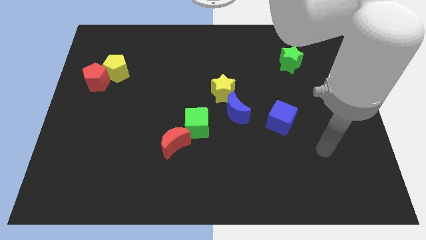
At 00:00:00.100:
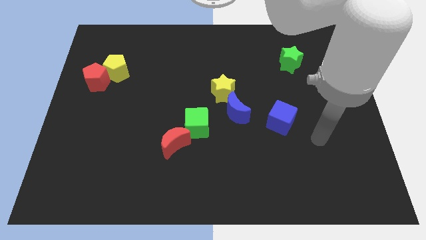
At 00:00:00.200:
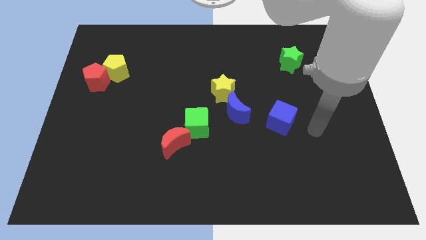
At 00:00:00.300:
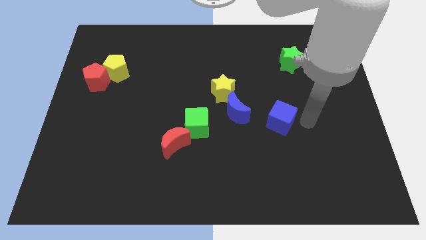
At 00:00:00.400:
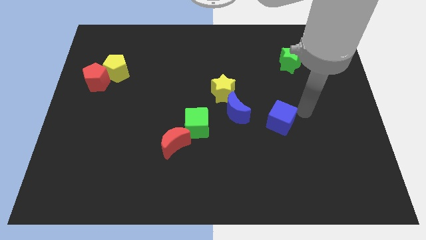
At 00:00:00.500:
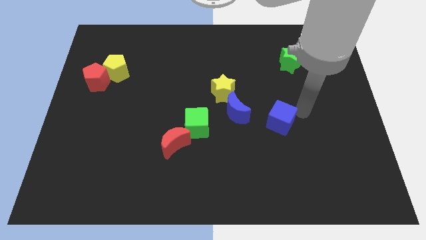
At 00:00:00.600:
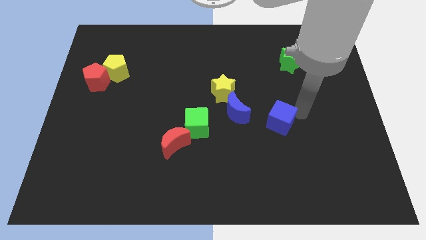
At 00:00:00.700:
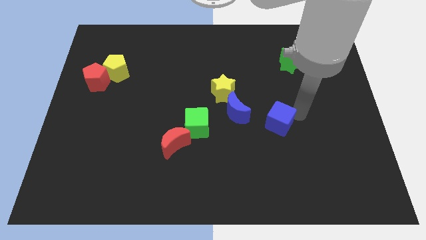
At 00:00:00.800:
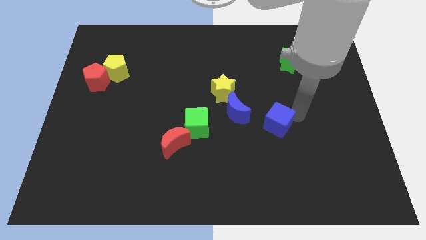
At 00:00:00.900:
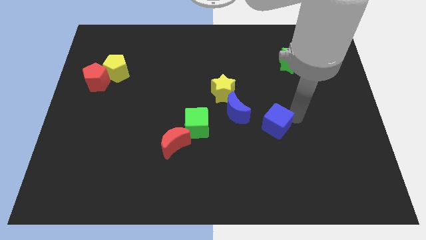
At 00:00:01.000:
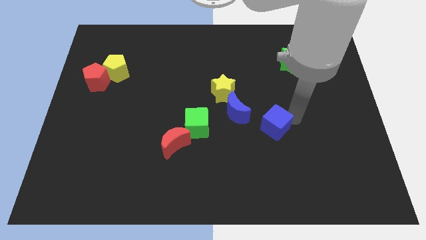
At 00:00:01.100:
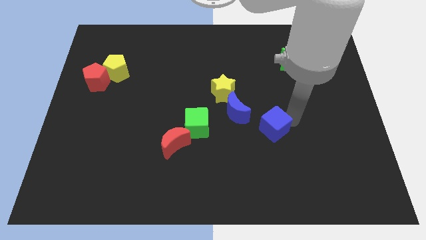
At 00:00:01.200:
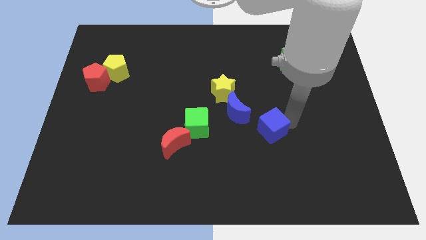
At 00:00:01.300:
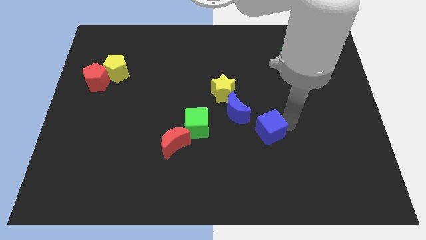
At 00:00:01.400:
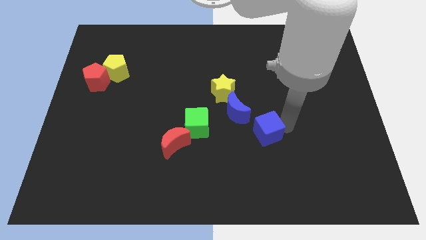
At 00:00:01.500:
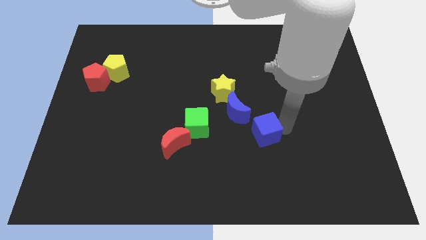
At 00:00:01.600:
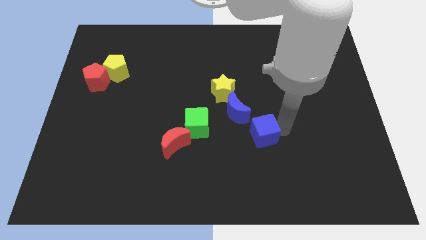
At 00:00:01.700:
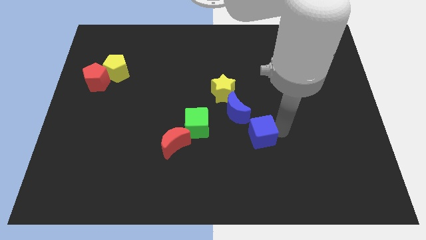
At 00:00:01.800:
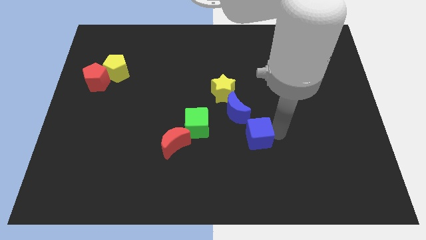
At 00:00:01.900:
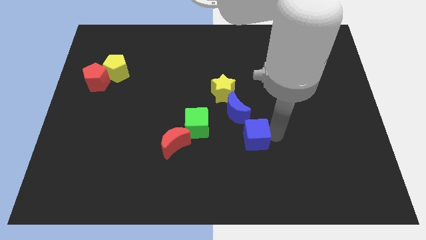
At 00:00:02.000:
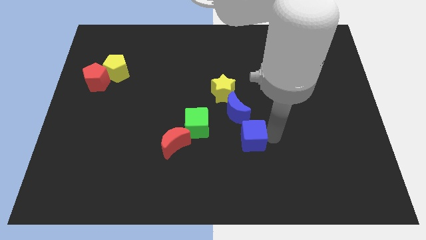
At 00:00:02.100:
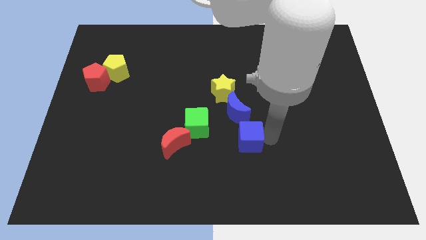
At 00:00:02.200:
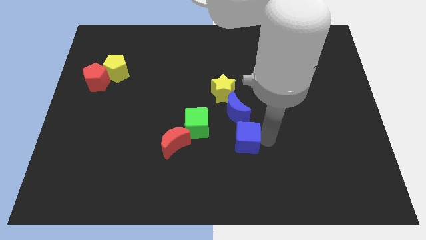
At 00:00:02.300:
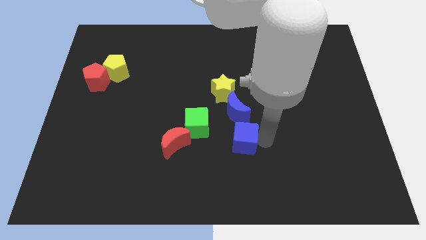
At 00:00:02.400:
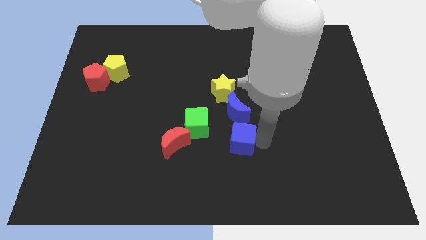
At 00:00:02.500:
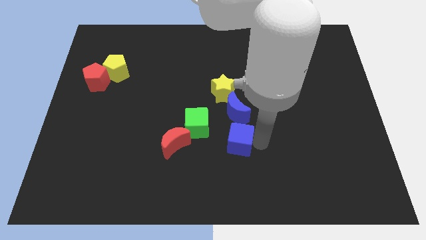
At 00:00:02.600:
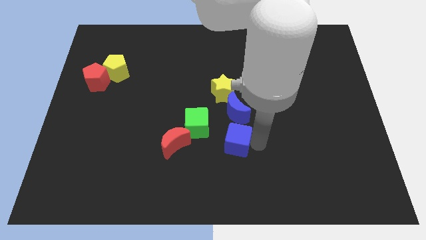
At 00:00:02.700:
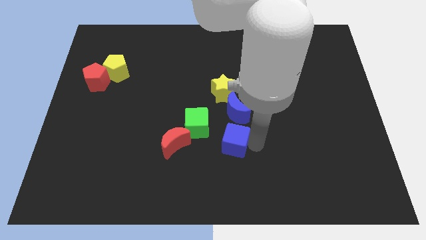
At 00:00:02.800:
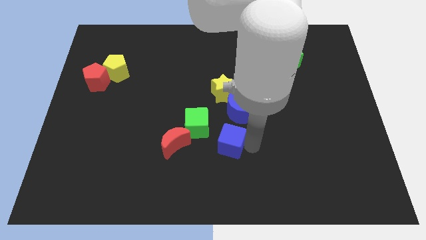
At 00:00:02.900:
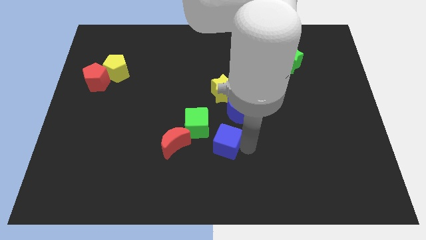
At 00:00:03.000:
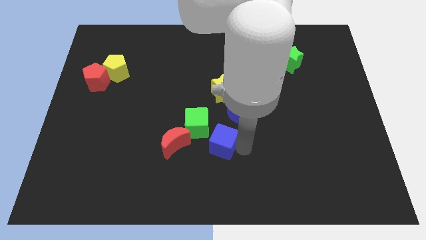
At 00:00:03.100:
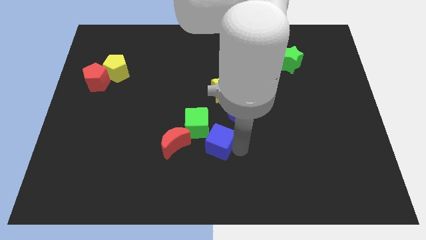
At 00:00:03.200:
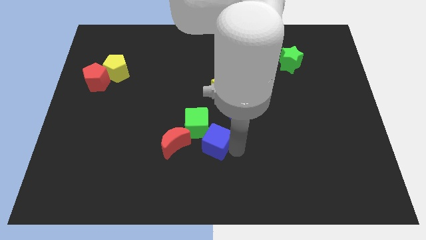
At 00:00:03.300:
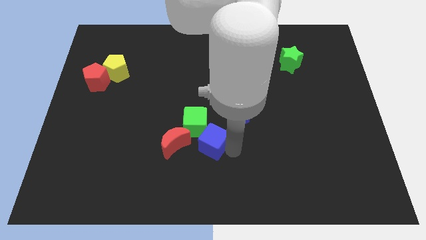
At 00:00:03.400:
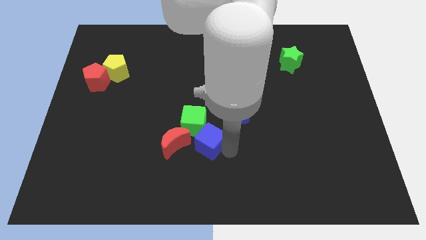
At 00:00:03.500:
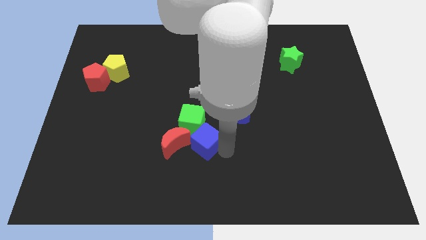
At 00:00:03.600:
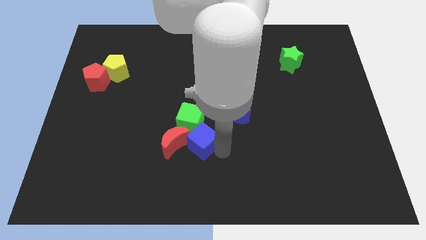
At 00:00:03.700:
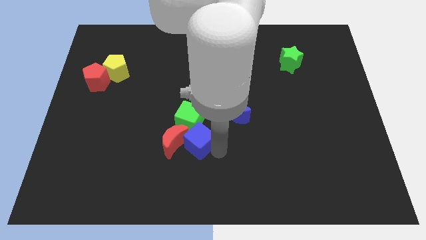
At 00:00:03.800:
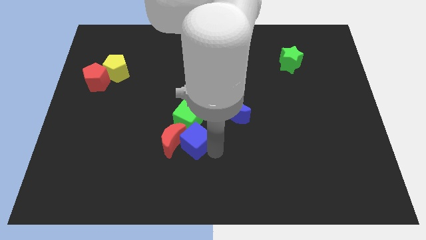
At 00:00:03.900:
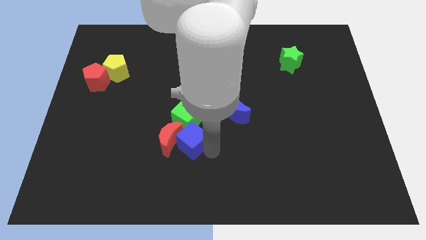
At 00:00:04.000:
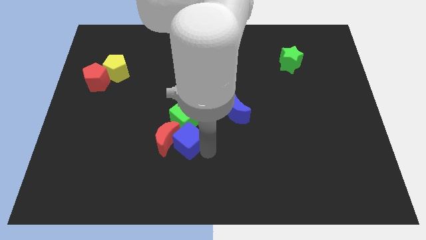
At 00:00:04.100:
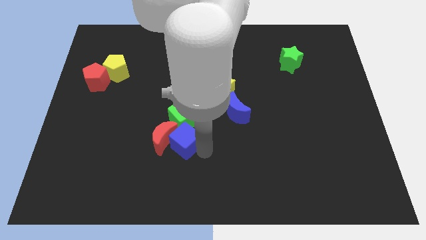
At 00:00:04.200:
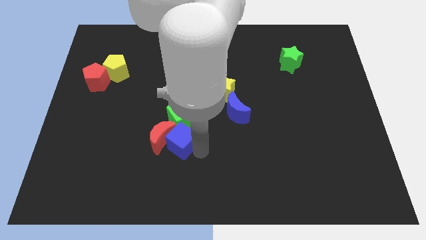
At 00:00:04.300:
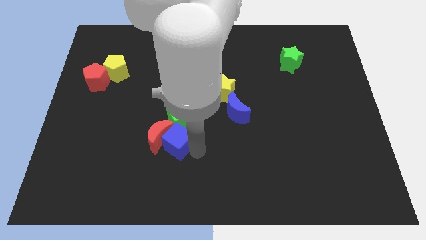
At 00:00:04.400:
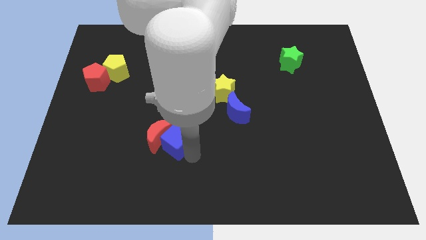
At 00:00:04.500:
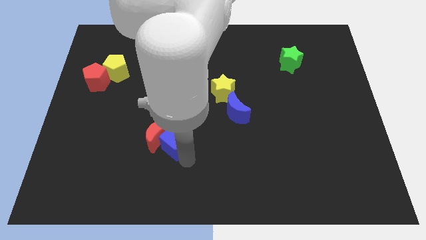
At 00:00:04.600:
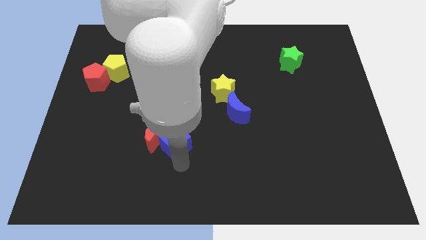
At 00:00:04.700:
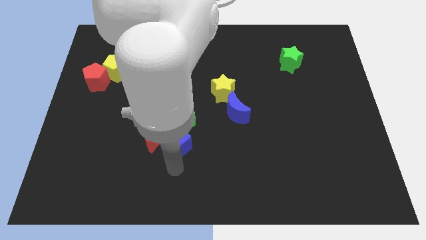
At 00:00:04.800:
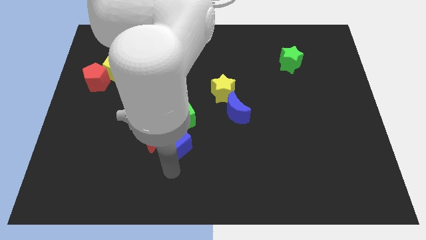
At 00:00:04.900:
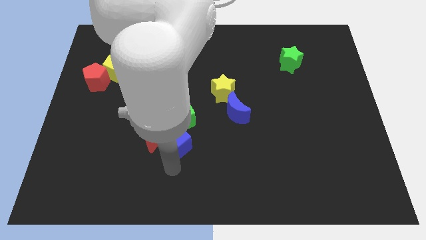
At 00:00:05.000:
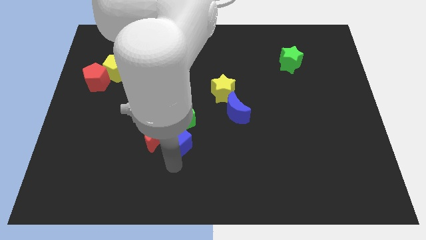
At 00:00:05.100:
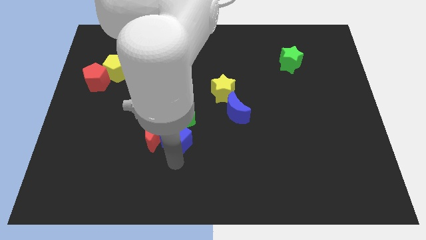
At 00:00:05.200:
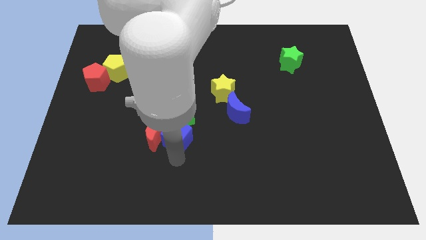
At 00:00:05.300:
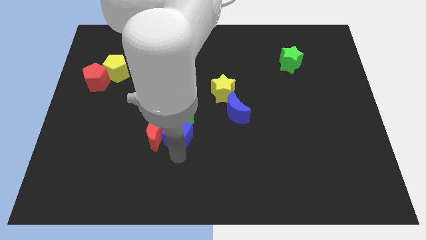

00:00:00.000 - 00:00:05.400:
push the blue cube close to the green cube

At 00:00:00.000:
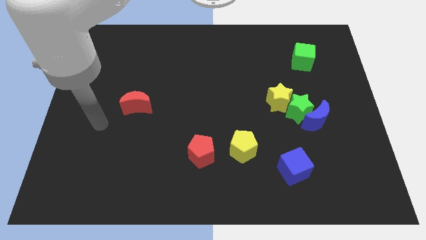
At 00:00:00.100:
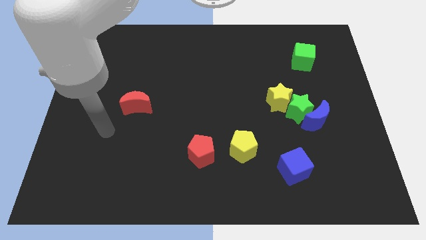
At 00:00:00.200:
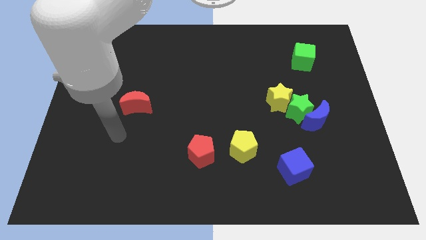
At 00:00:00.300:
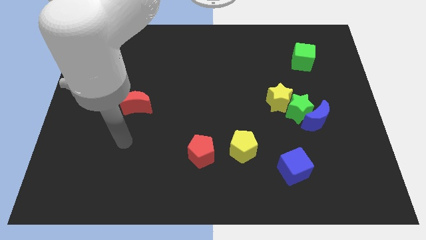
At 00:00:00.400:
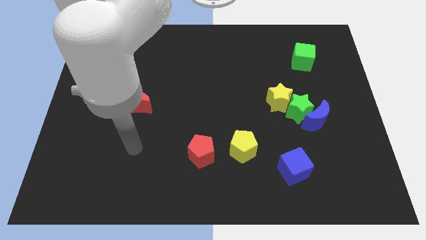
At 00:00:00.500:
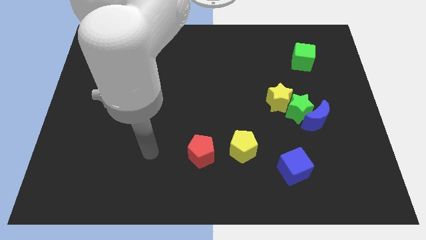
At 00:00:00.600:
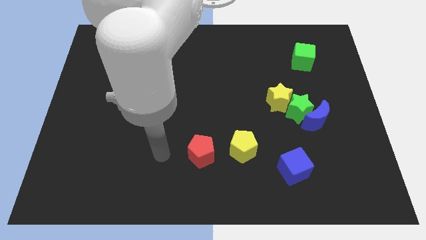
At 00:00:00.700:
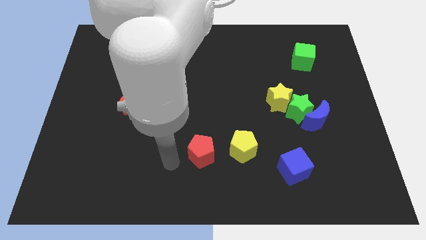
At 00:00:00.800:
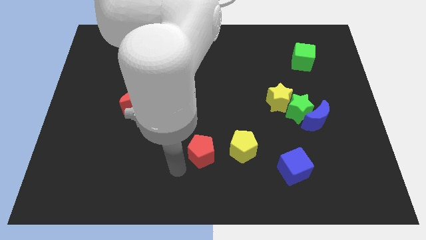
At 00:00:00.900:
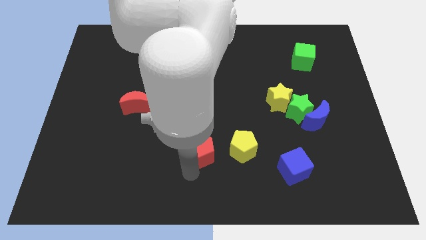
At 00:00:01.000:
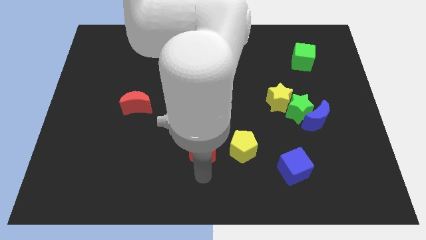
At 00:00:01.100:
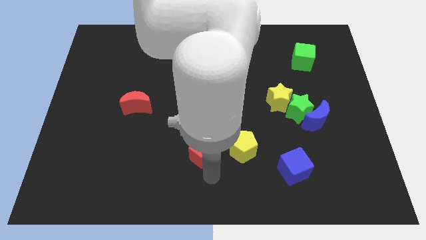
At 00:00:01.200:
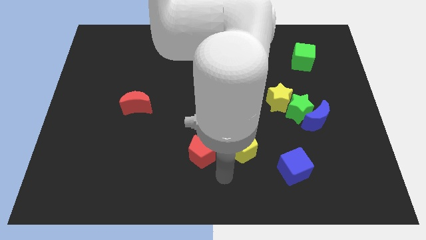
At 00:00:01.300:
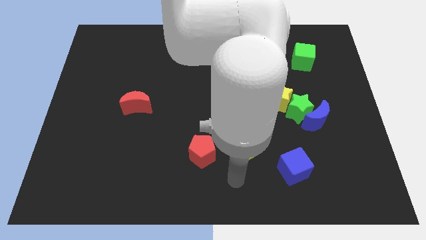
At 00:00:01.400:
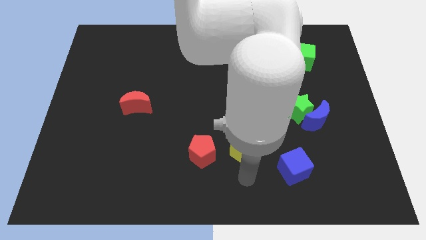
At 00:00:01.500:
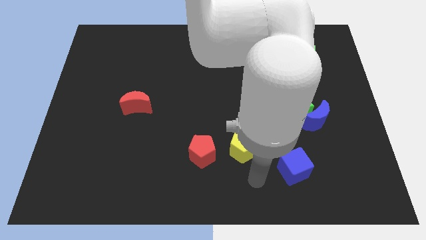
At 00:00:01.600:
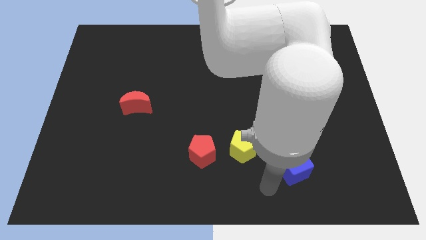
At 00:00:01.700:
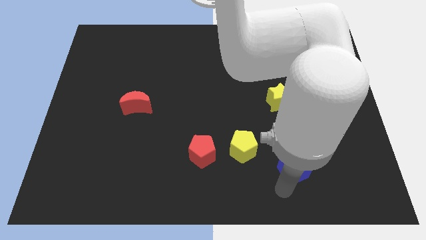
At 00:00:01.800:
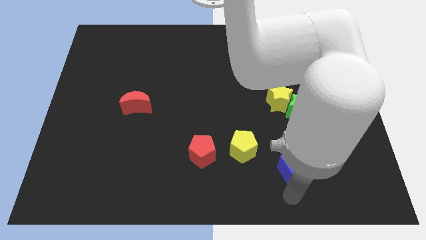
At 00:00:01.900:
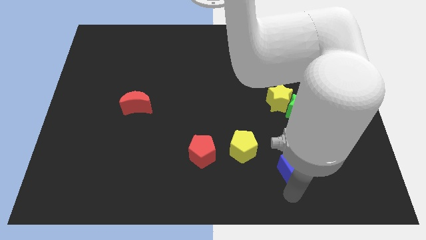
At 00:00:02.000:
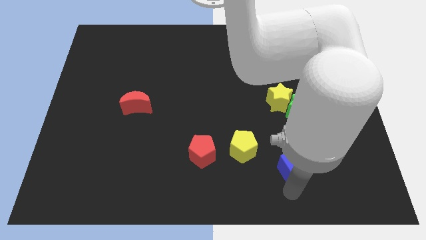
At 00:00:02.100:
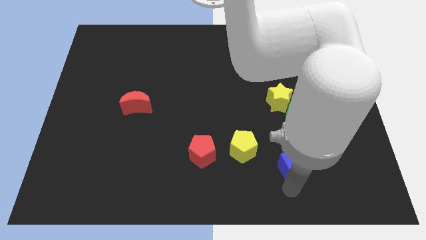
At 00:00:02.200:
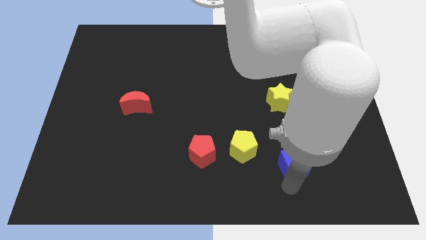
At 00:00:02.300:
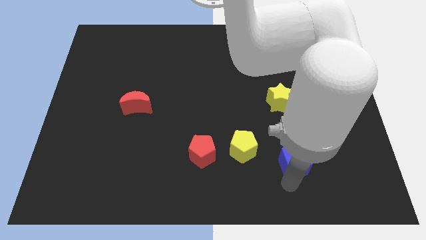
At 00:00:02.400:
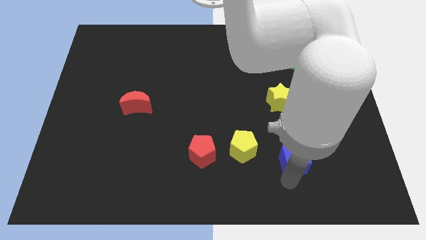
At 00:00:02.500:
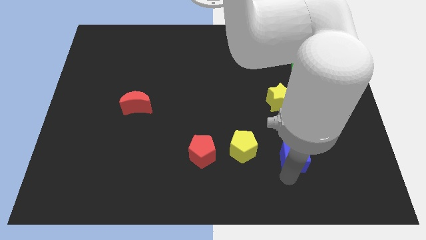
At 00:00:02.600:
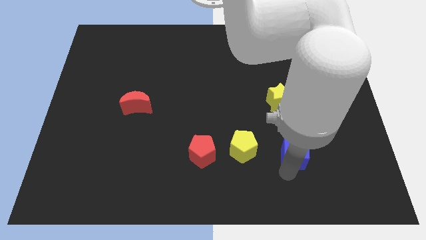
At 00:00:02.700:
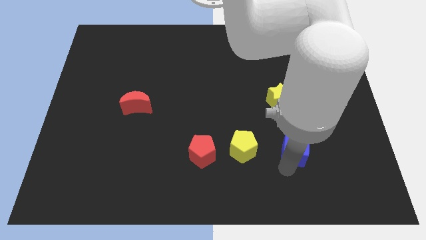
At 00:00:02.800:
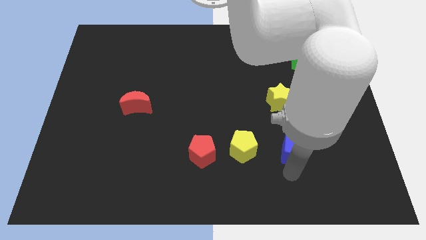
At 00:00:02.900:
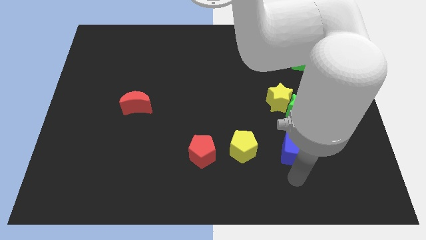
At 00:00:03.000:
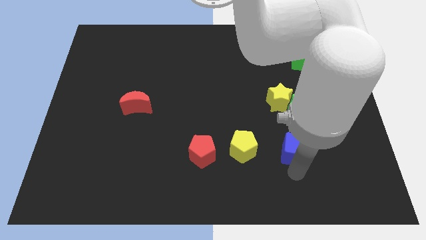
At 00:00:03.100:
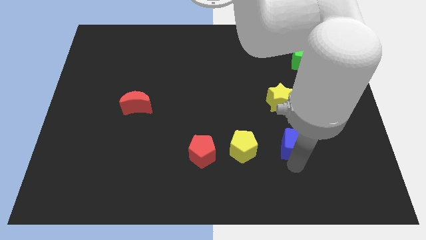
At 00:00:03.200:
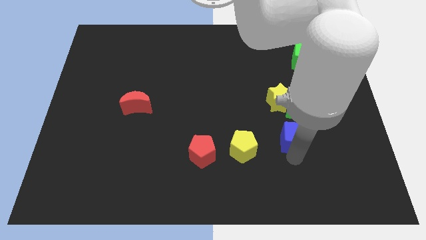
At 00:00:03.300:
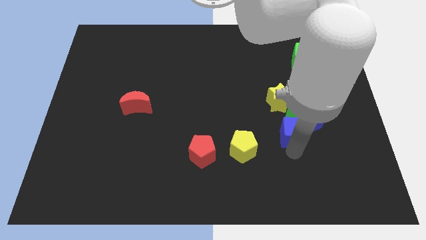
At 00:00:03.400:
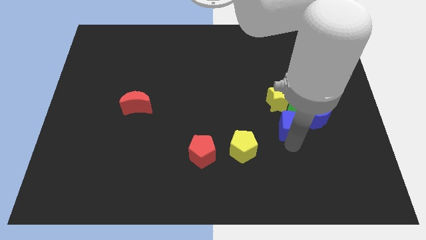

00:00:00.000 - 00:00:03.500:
slide the blue cube to the green star
